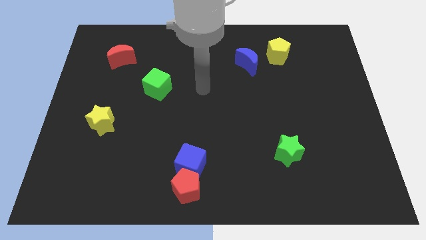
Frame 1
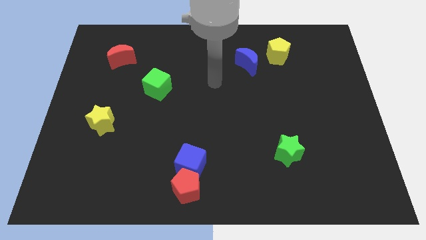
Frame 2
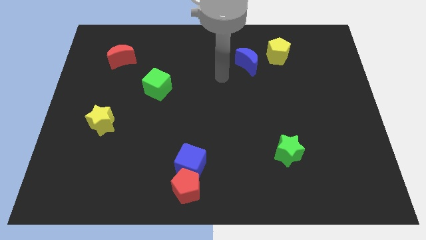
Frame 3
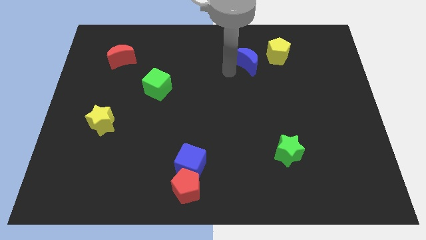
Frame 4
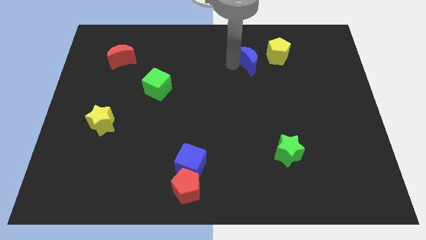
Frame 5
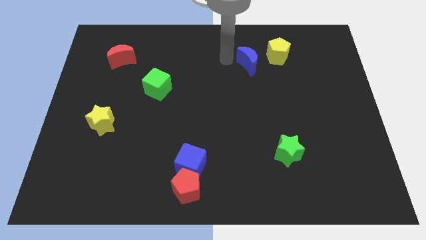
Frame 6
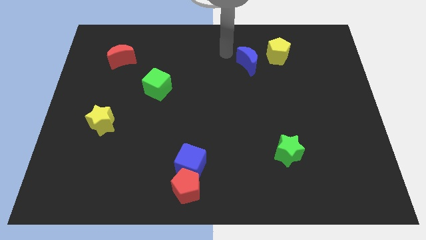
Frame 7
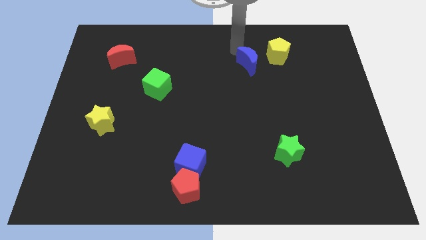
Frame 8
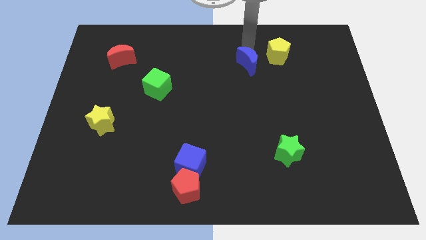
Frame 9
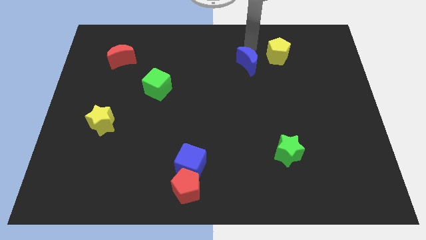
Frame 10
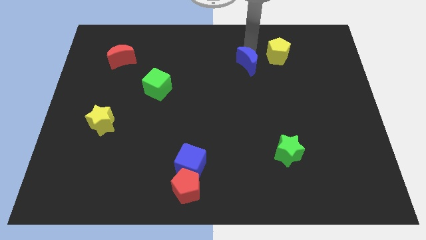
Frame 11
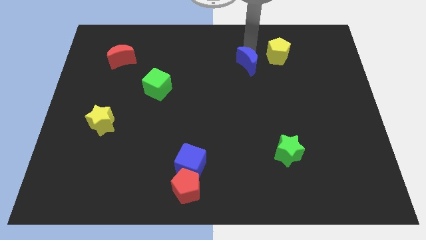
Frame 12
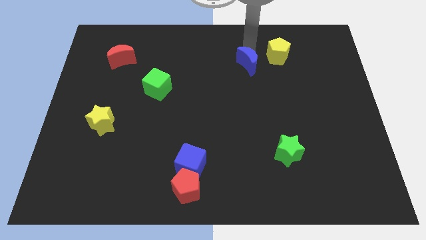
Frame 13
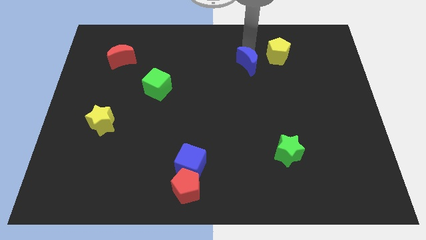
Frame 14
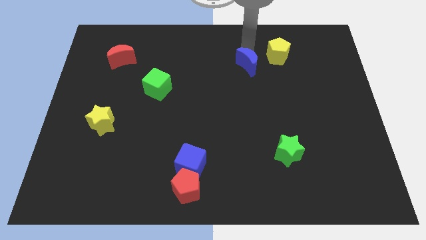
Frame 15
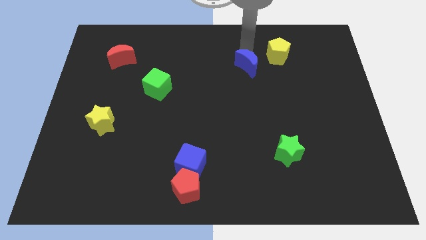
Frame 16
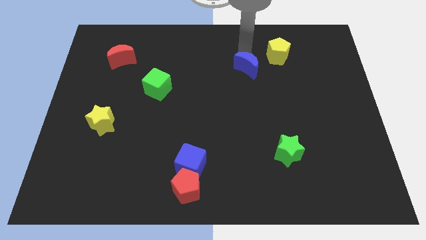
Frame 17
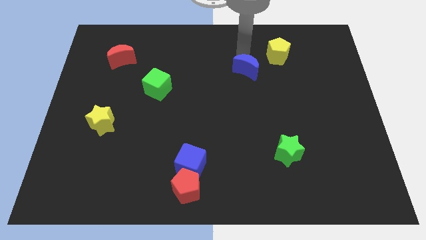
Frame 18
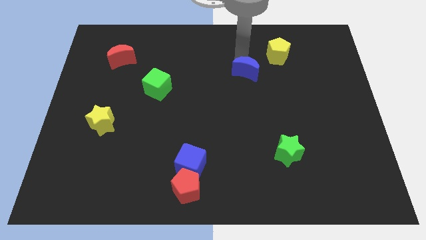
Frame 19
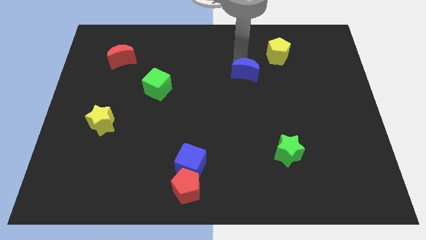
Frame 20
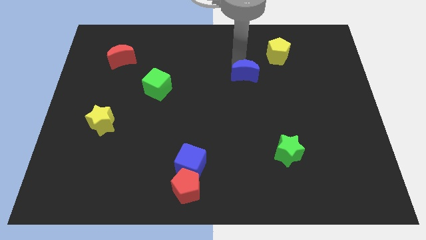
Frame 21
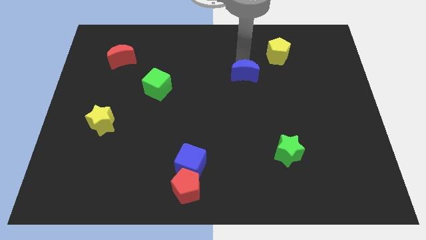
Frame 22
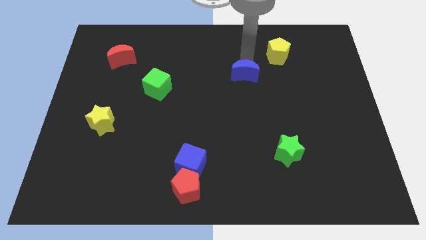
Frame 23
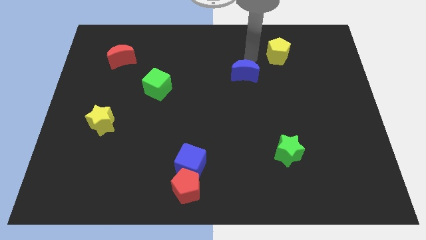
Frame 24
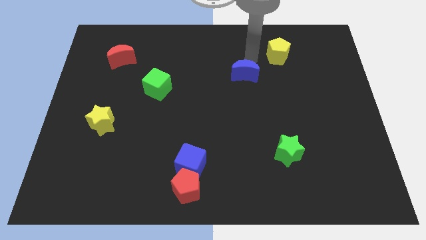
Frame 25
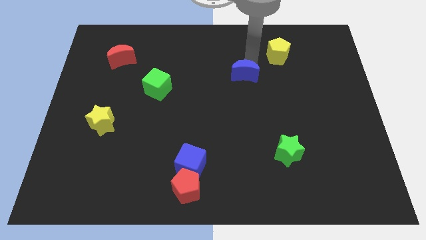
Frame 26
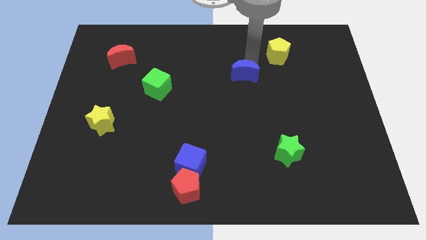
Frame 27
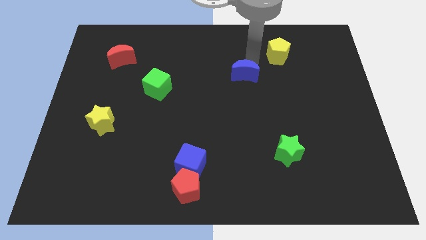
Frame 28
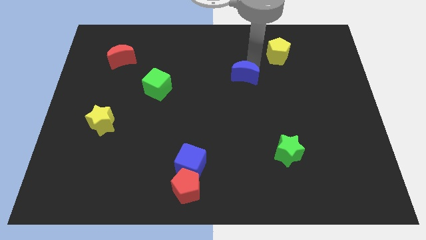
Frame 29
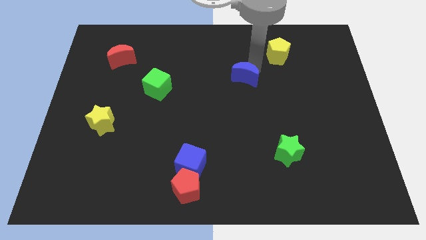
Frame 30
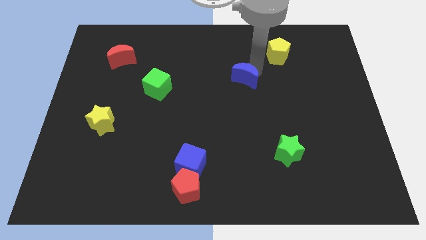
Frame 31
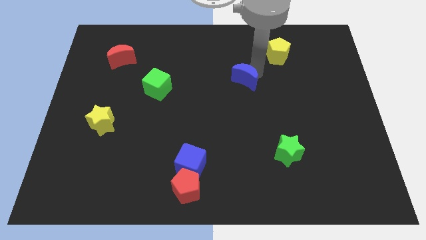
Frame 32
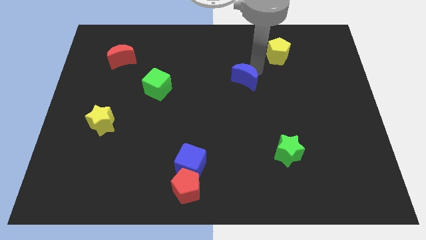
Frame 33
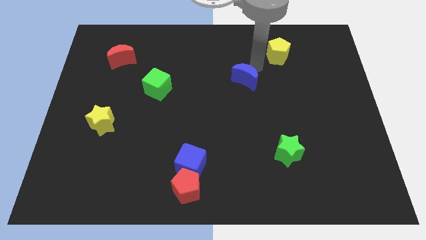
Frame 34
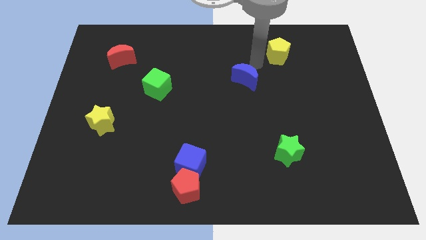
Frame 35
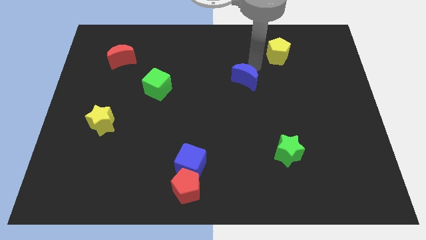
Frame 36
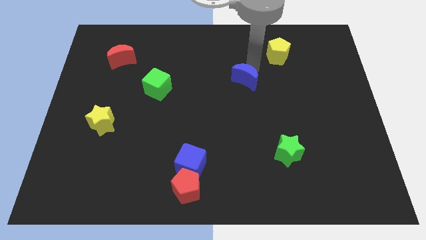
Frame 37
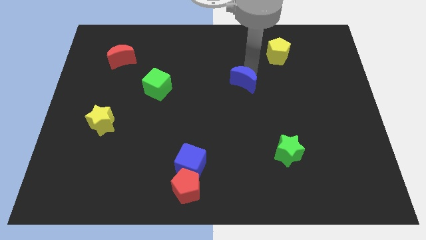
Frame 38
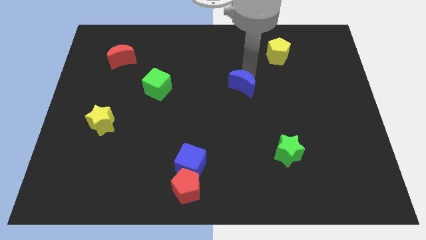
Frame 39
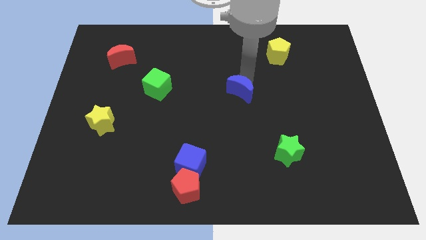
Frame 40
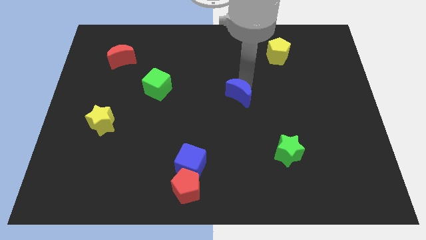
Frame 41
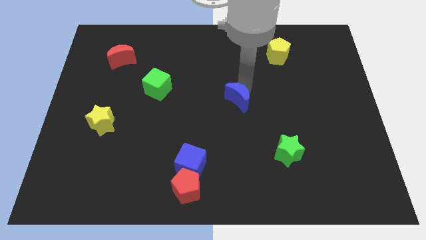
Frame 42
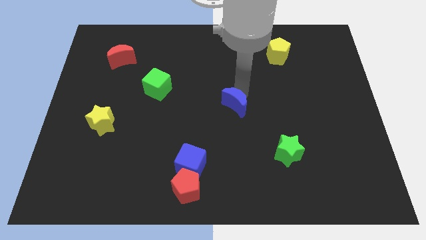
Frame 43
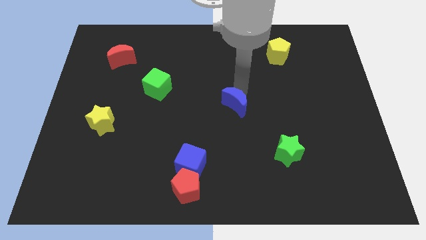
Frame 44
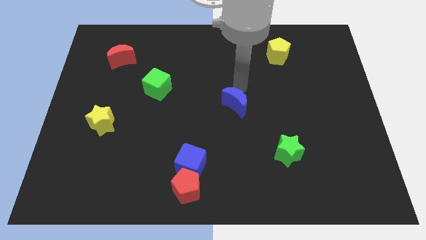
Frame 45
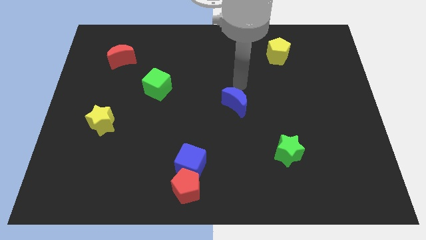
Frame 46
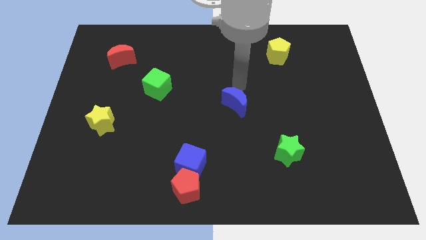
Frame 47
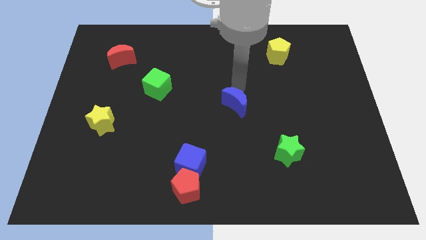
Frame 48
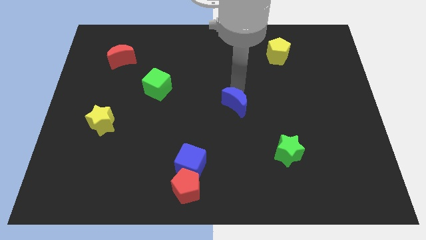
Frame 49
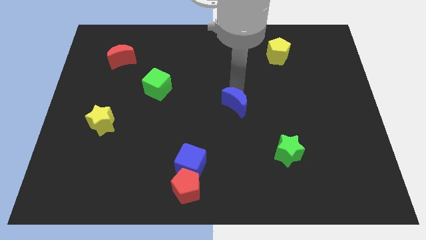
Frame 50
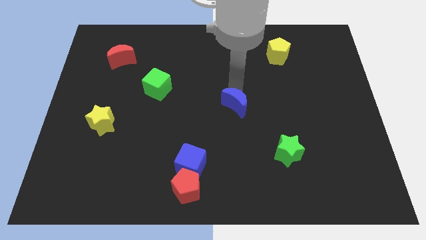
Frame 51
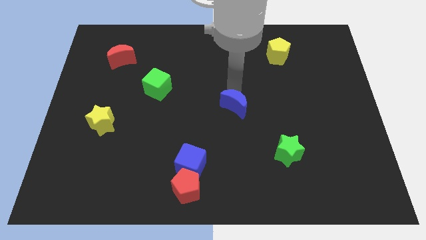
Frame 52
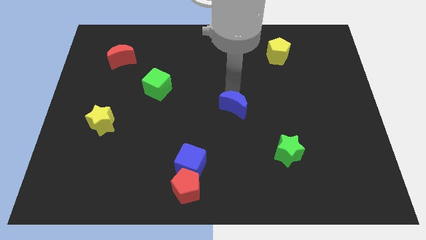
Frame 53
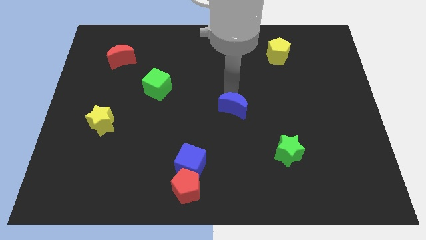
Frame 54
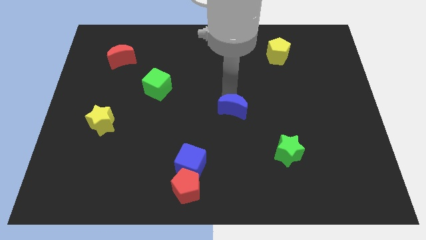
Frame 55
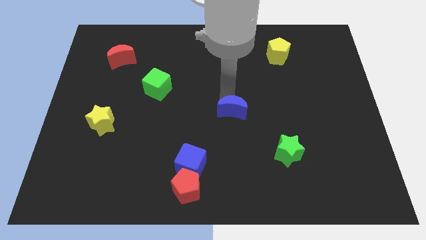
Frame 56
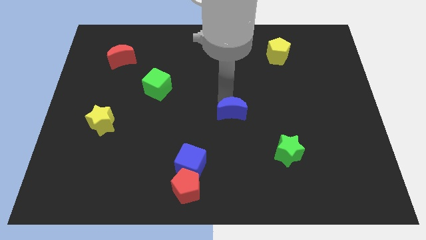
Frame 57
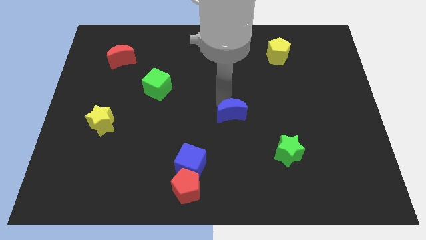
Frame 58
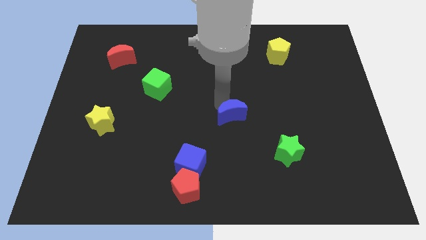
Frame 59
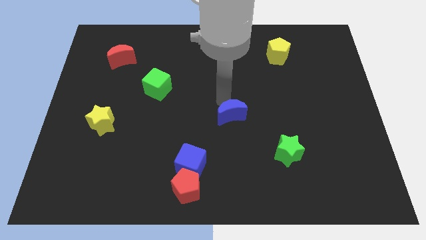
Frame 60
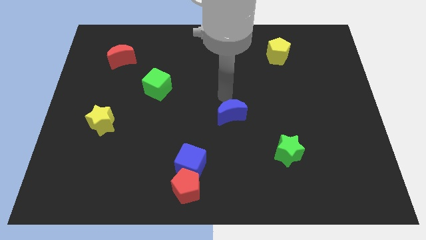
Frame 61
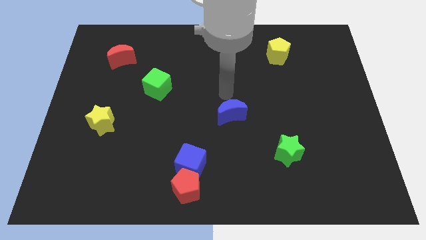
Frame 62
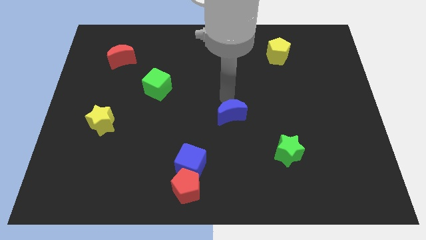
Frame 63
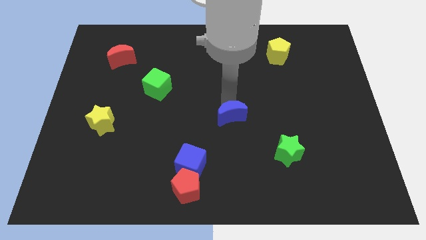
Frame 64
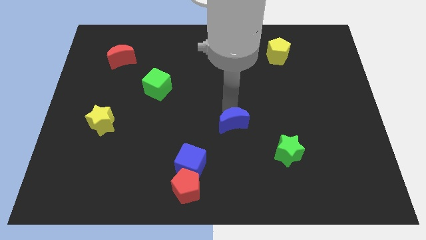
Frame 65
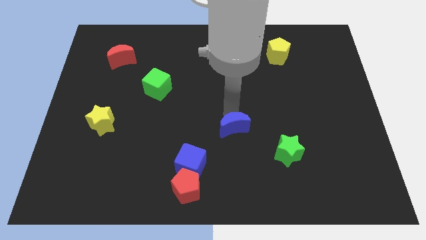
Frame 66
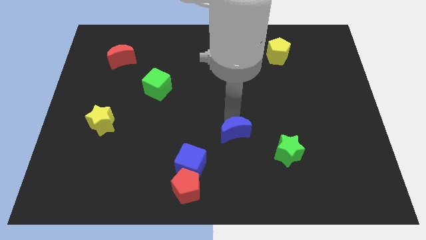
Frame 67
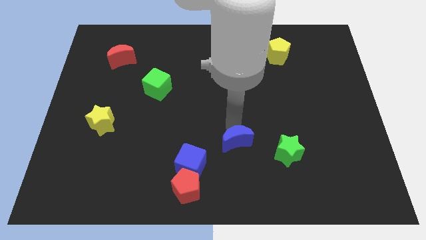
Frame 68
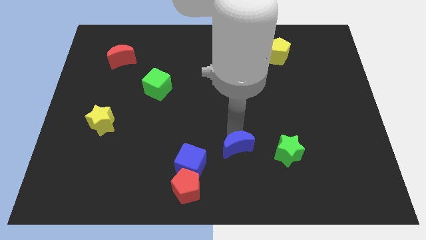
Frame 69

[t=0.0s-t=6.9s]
move the blue moon right of the blue cube
